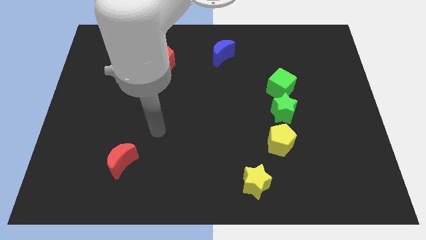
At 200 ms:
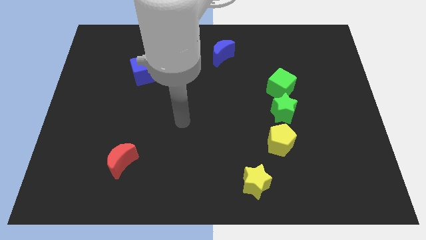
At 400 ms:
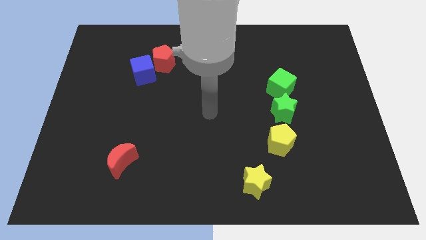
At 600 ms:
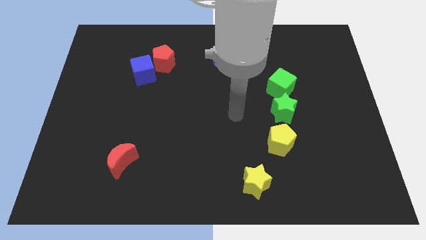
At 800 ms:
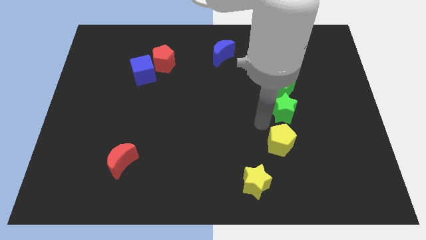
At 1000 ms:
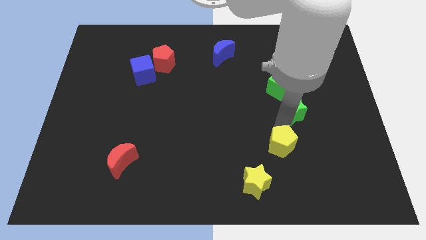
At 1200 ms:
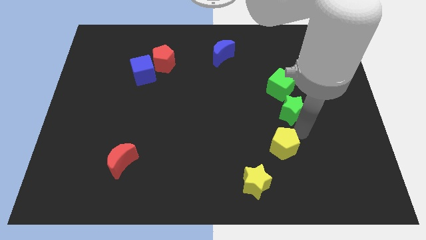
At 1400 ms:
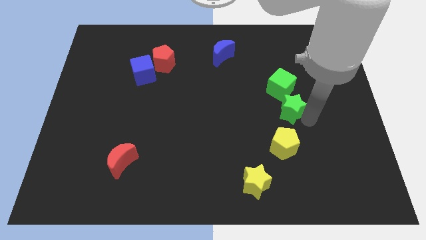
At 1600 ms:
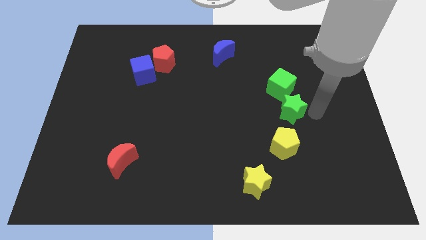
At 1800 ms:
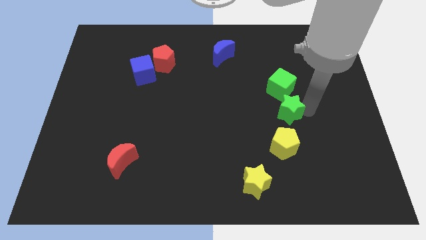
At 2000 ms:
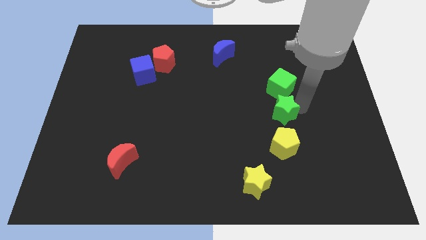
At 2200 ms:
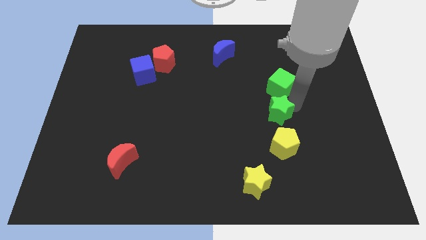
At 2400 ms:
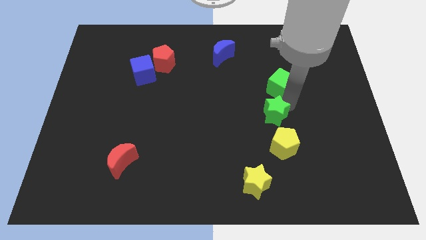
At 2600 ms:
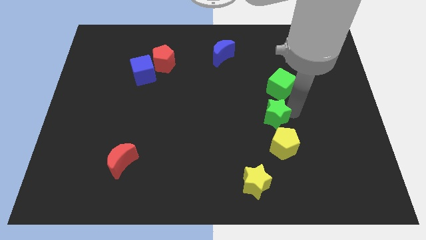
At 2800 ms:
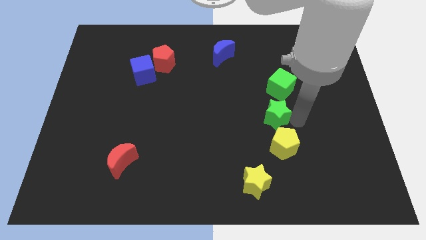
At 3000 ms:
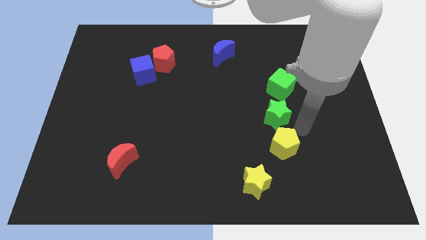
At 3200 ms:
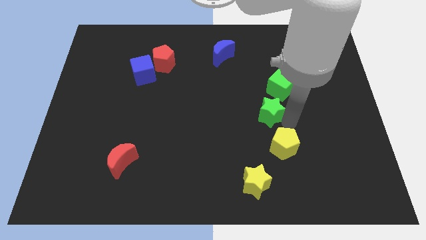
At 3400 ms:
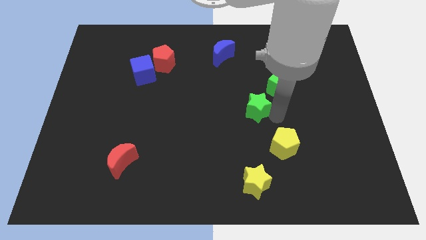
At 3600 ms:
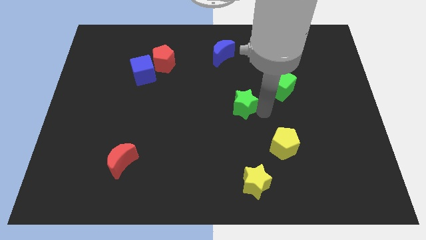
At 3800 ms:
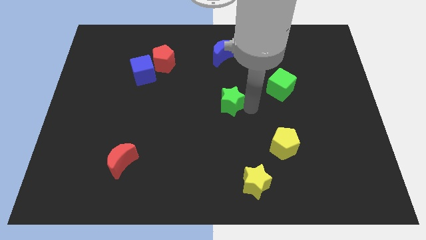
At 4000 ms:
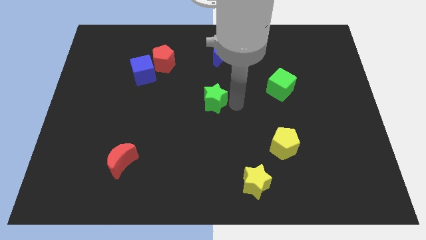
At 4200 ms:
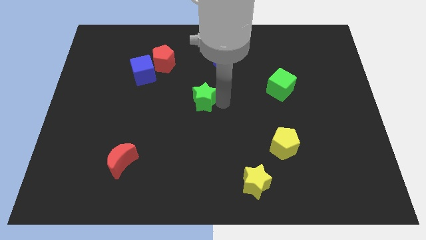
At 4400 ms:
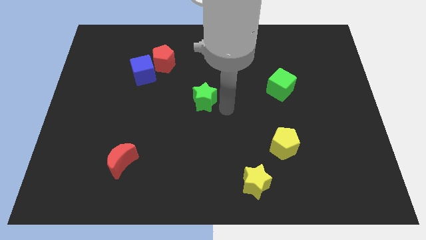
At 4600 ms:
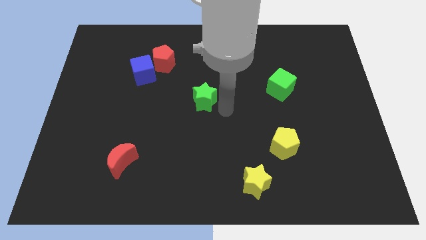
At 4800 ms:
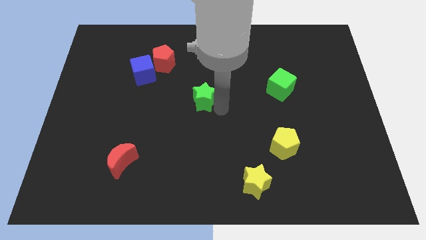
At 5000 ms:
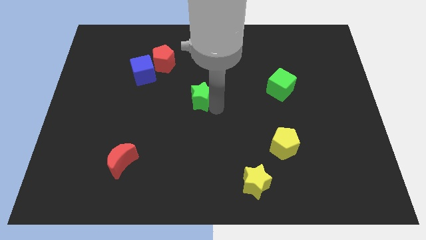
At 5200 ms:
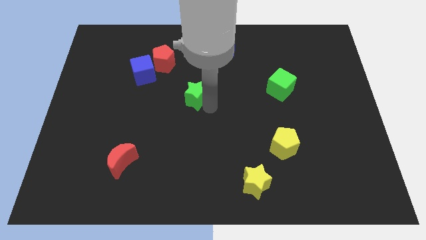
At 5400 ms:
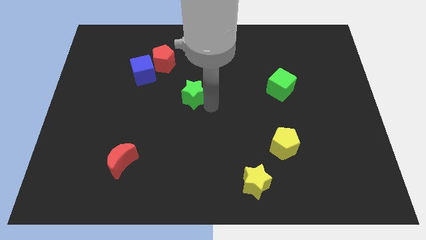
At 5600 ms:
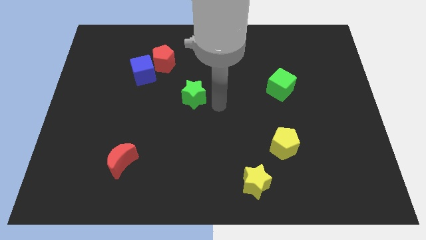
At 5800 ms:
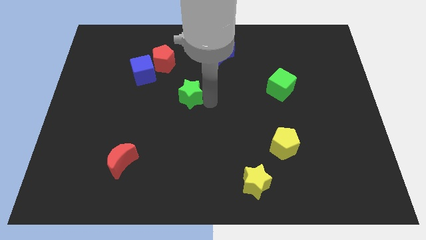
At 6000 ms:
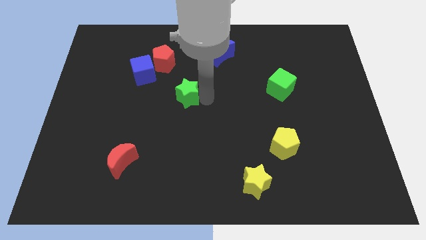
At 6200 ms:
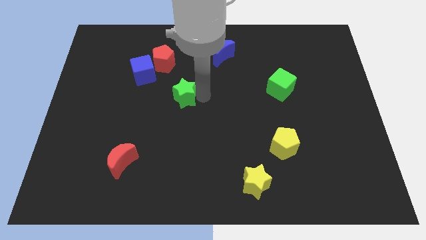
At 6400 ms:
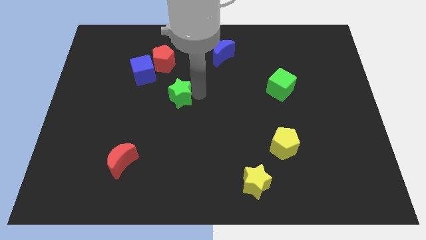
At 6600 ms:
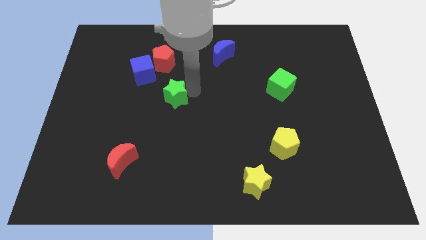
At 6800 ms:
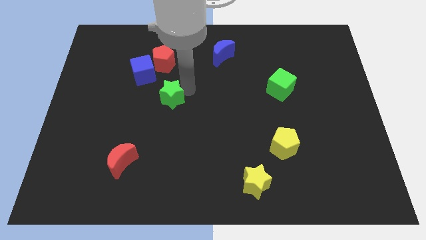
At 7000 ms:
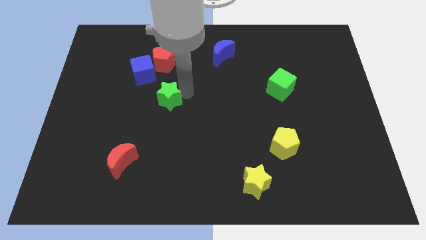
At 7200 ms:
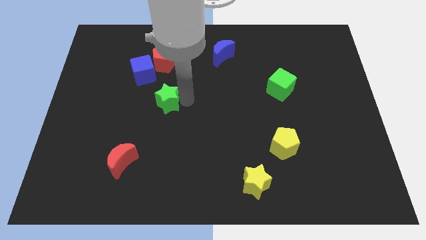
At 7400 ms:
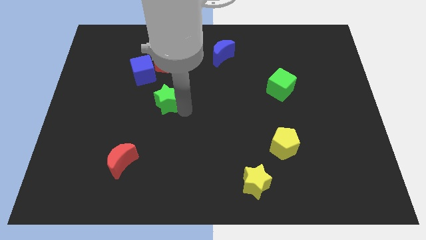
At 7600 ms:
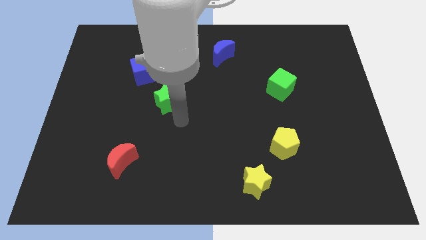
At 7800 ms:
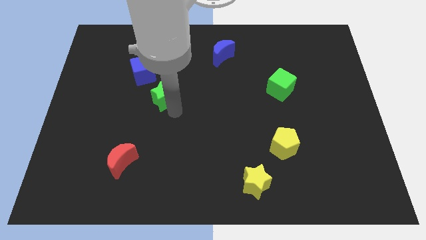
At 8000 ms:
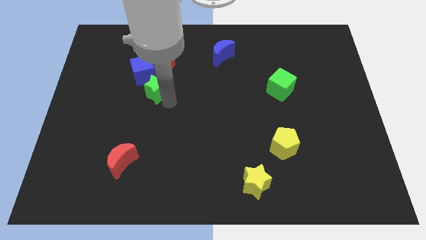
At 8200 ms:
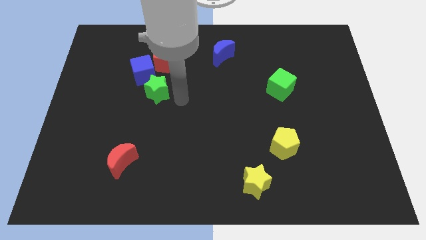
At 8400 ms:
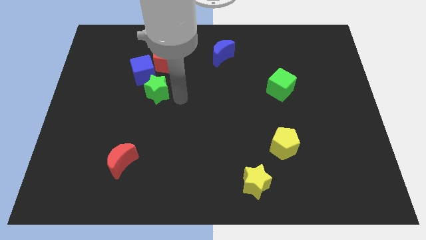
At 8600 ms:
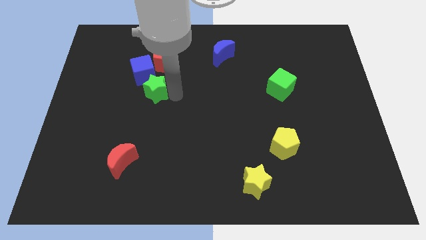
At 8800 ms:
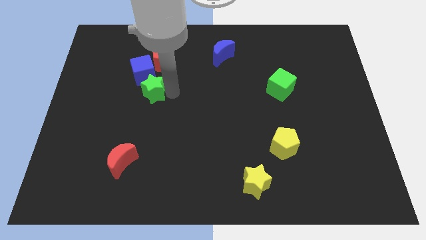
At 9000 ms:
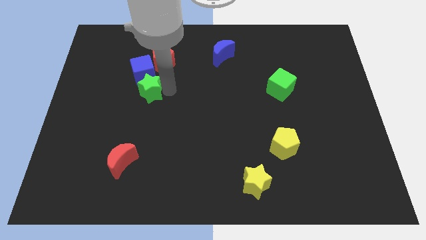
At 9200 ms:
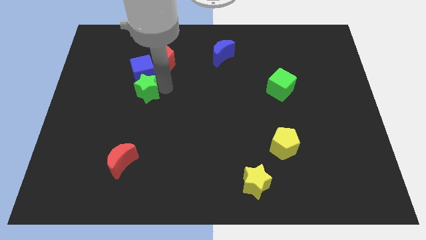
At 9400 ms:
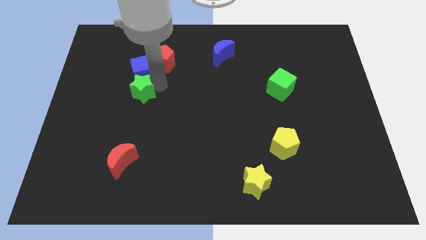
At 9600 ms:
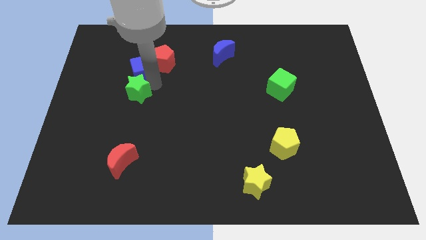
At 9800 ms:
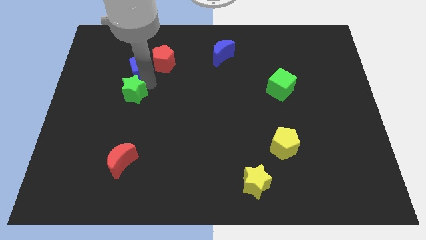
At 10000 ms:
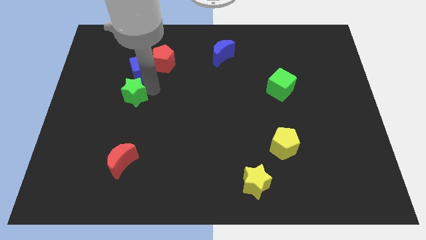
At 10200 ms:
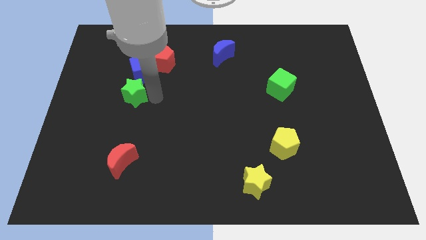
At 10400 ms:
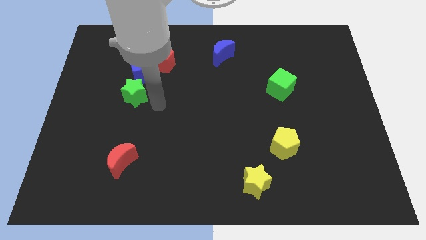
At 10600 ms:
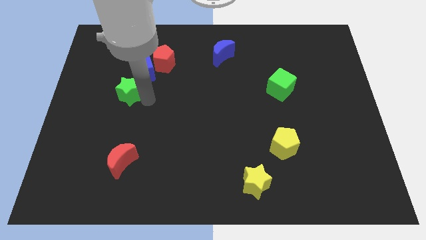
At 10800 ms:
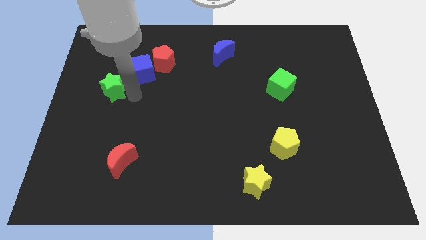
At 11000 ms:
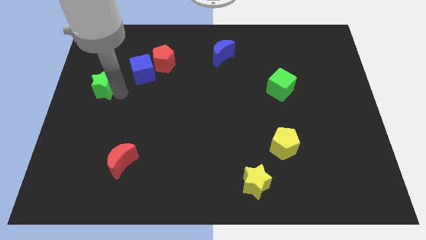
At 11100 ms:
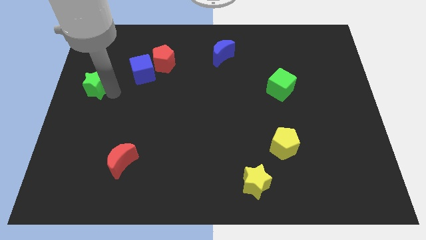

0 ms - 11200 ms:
move the green star just left of the blue cube

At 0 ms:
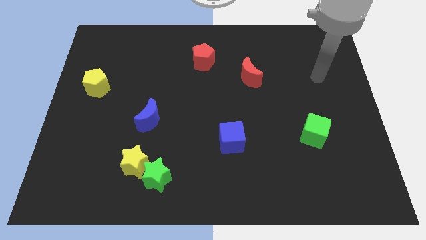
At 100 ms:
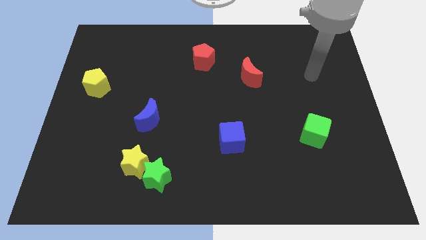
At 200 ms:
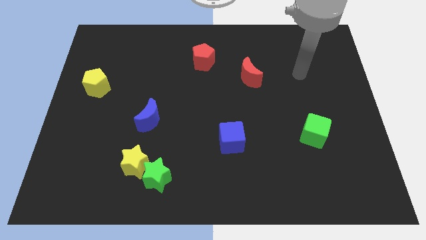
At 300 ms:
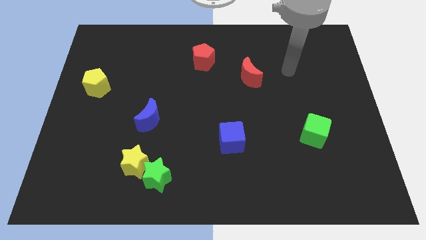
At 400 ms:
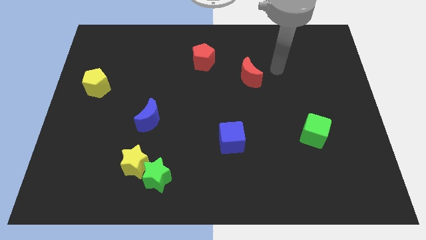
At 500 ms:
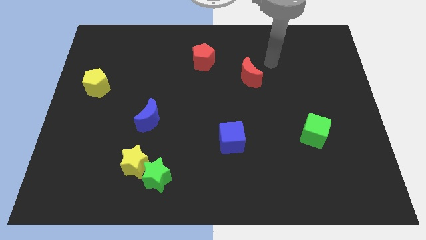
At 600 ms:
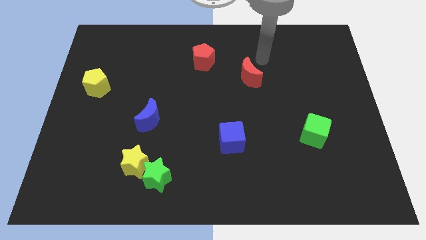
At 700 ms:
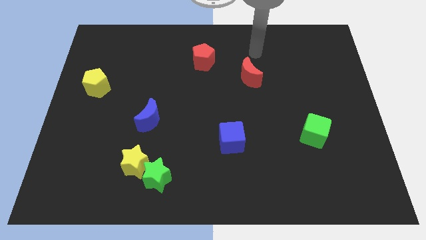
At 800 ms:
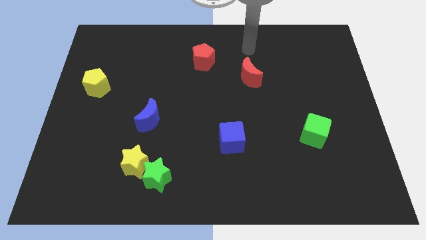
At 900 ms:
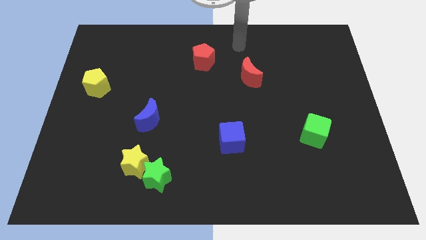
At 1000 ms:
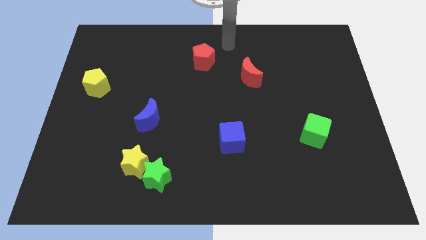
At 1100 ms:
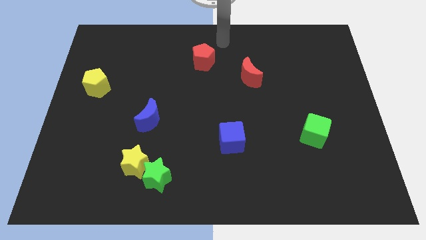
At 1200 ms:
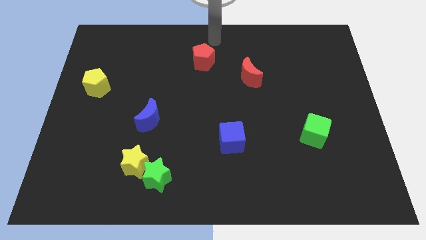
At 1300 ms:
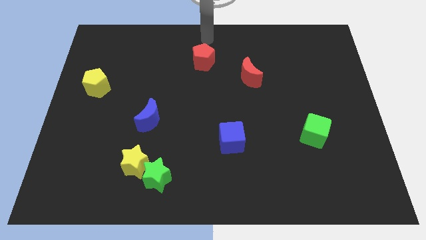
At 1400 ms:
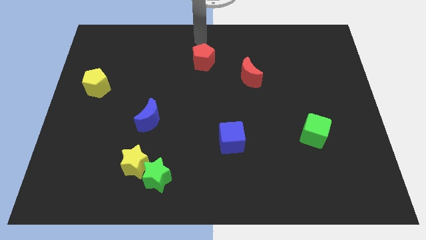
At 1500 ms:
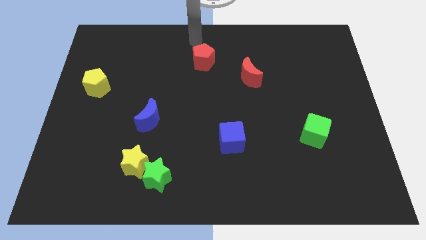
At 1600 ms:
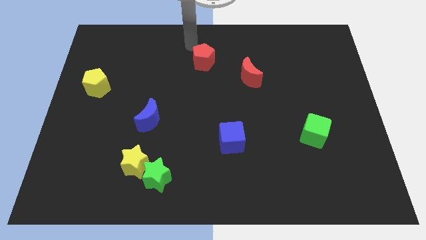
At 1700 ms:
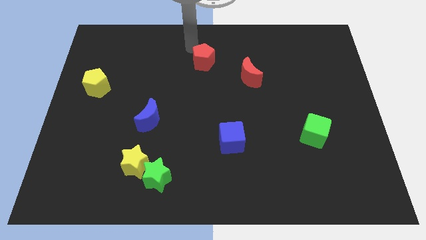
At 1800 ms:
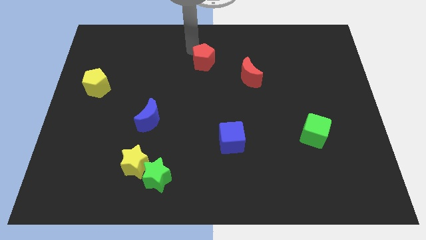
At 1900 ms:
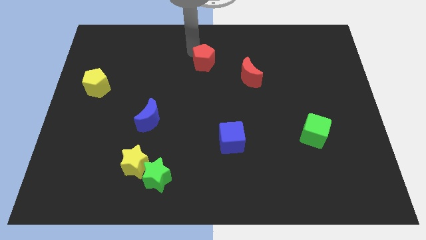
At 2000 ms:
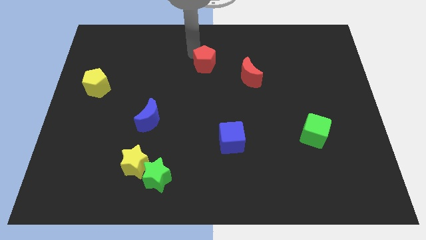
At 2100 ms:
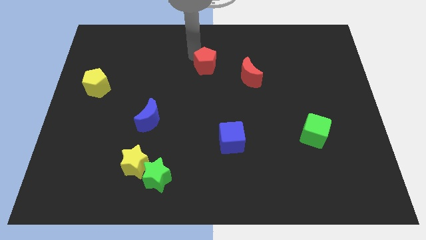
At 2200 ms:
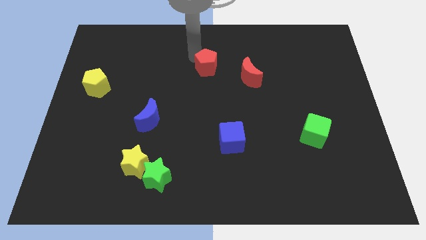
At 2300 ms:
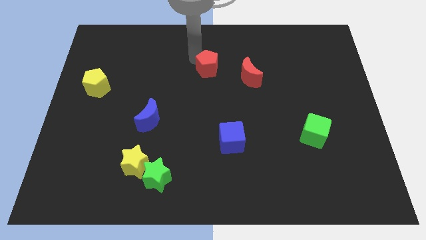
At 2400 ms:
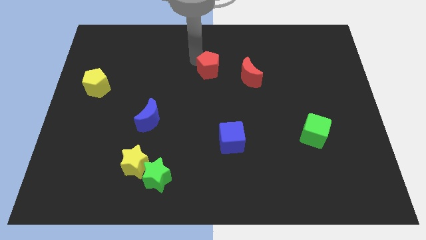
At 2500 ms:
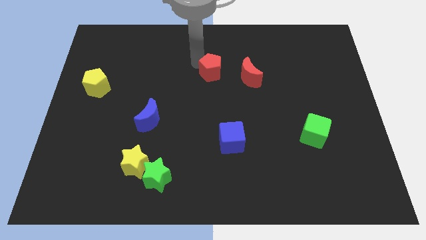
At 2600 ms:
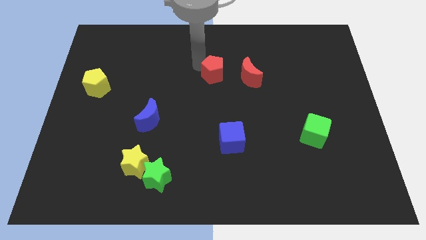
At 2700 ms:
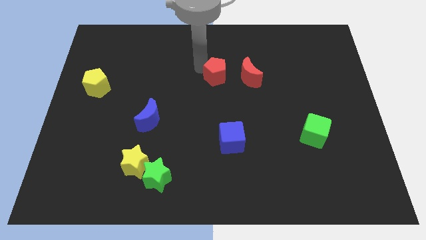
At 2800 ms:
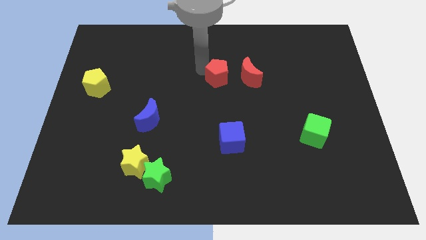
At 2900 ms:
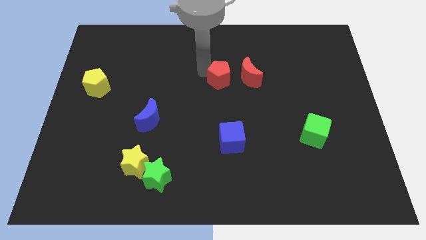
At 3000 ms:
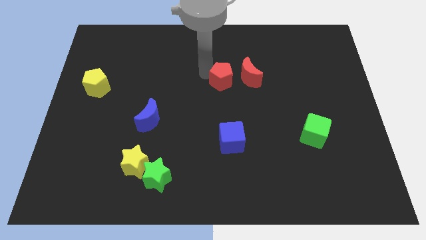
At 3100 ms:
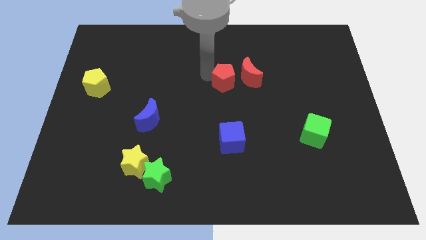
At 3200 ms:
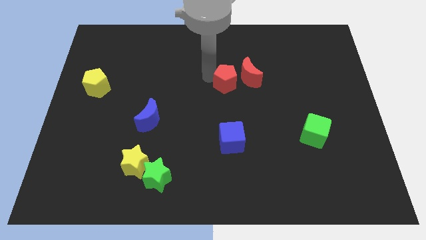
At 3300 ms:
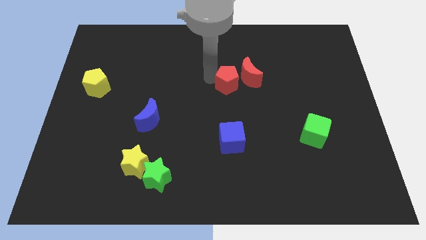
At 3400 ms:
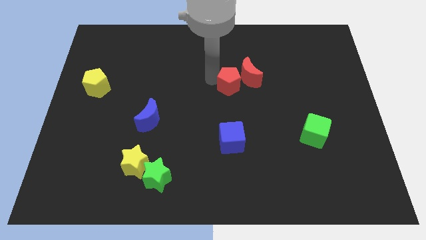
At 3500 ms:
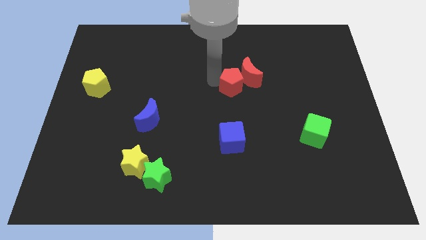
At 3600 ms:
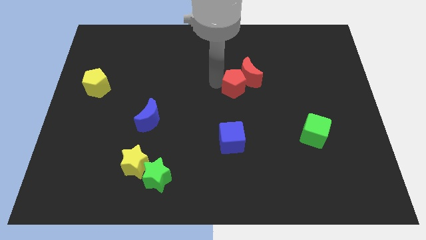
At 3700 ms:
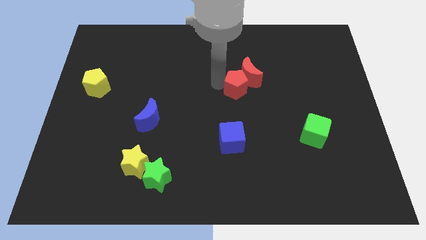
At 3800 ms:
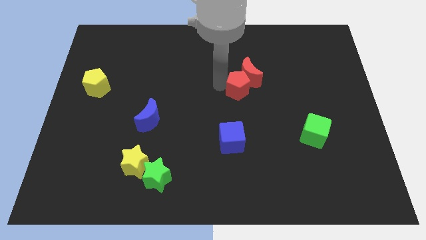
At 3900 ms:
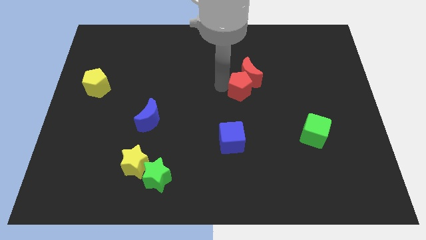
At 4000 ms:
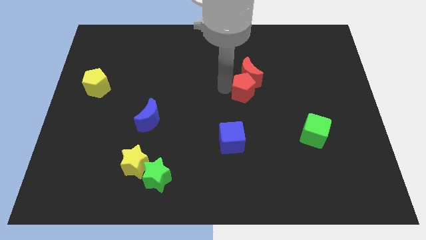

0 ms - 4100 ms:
put the red pentagon to the bottom right side of the red moon
